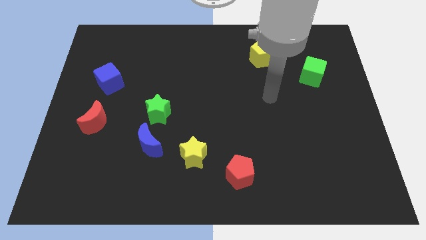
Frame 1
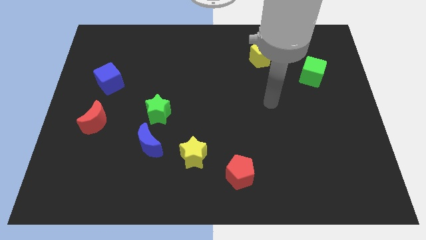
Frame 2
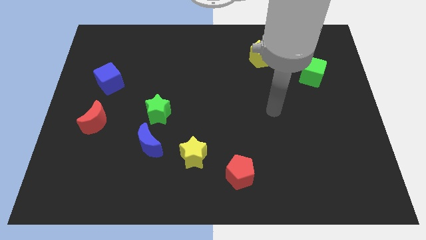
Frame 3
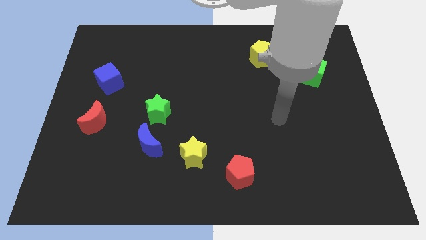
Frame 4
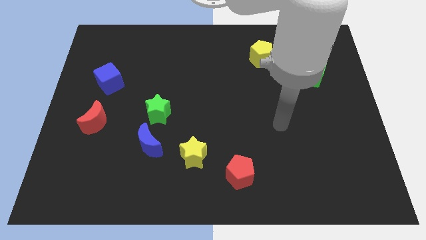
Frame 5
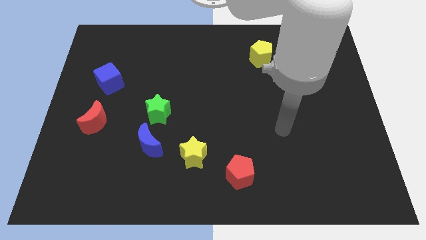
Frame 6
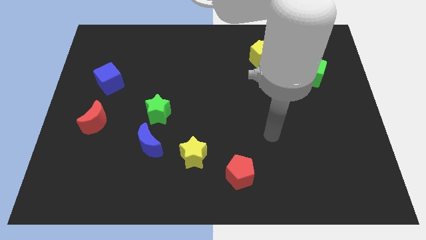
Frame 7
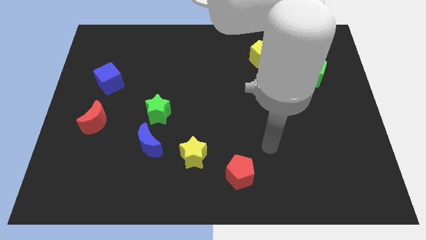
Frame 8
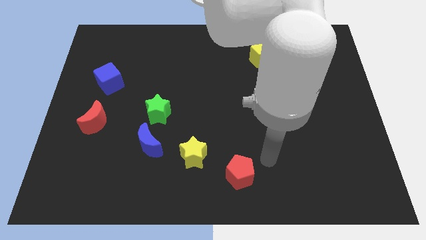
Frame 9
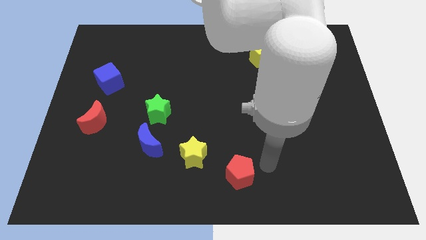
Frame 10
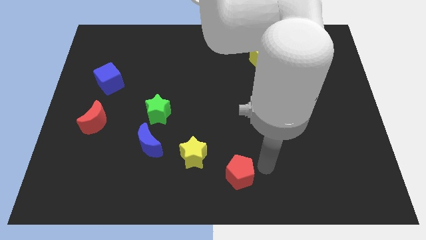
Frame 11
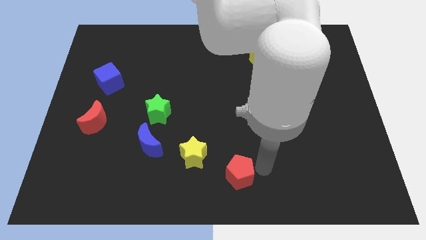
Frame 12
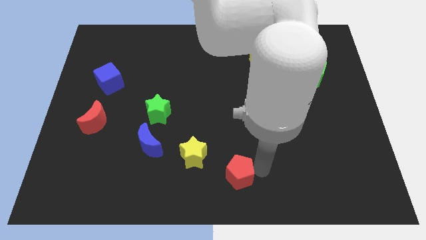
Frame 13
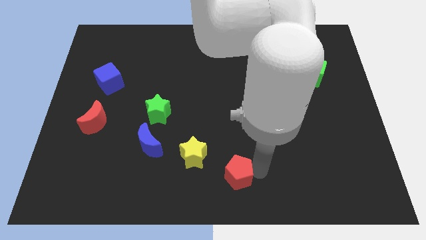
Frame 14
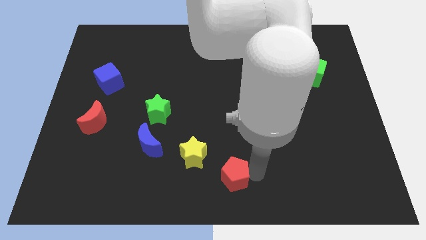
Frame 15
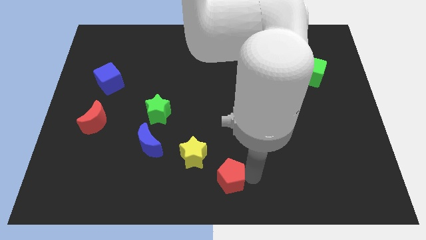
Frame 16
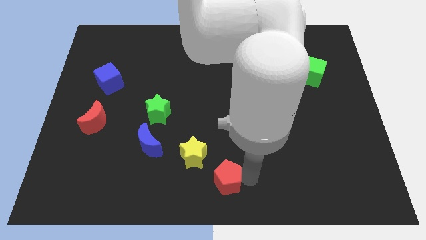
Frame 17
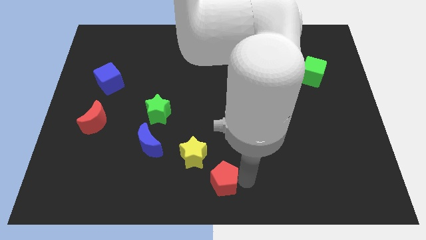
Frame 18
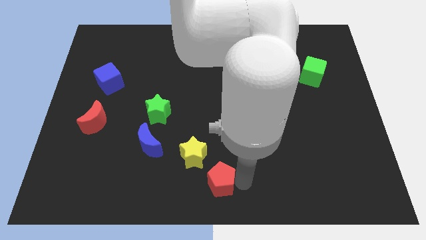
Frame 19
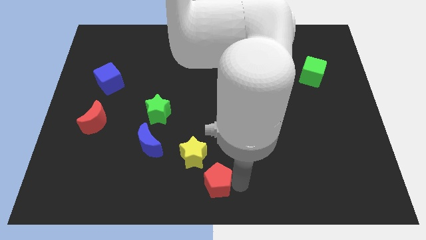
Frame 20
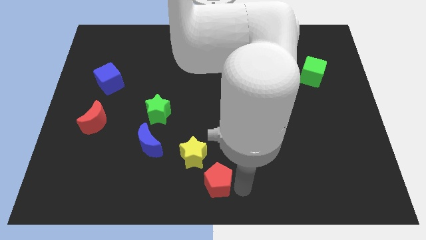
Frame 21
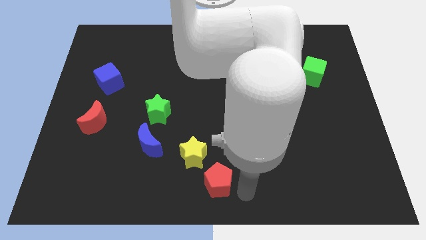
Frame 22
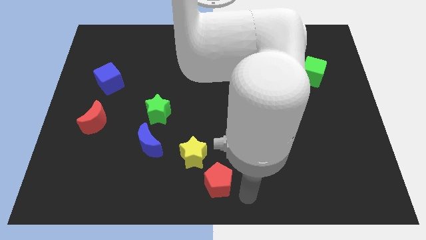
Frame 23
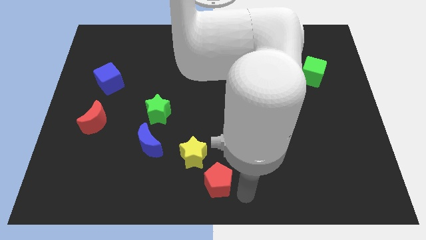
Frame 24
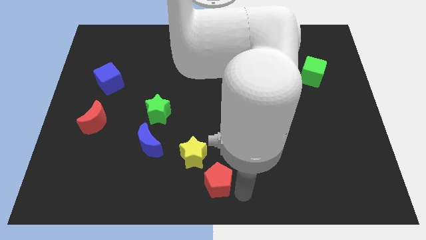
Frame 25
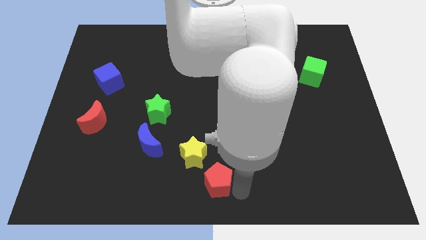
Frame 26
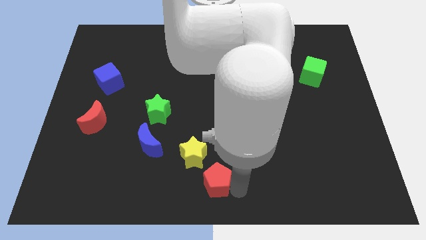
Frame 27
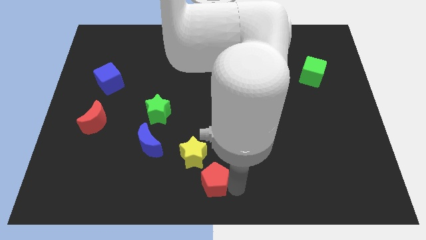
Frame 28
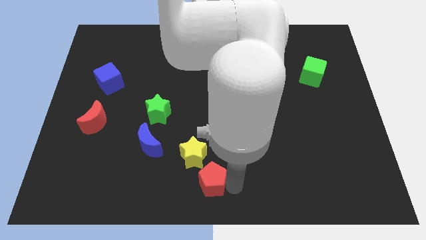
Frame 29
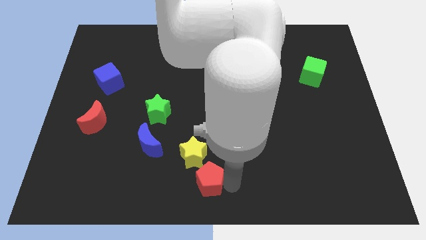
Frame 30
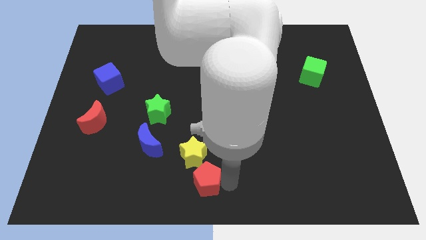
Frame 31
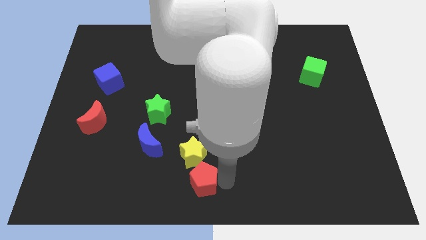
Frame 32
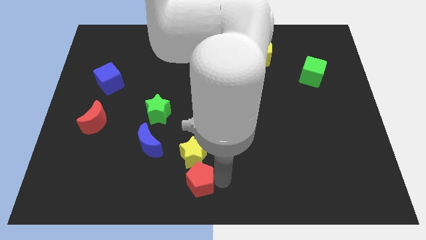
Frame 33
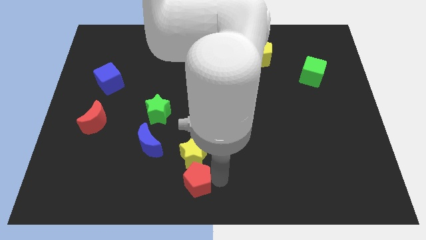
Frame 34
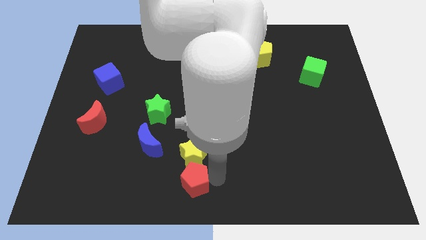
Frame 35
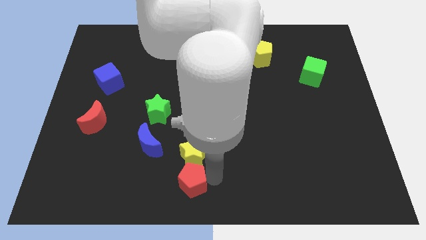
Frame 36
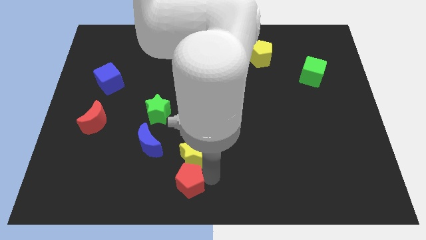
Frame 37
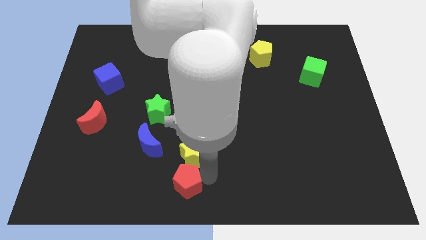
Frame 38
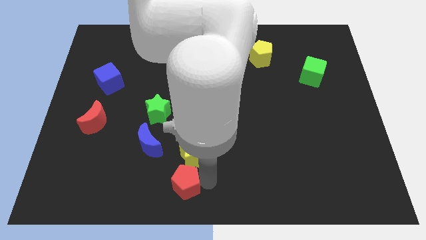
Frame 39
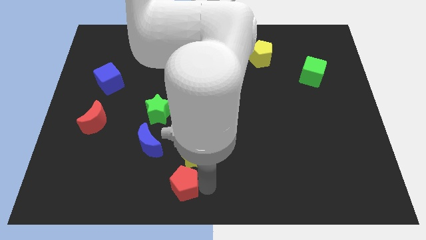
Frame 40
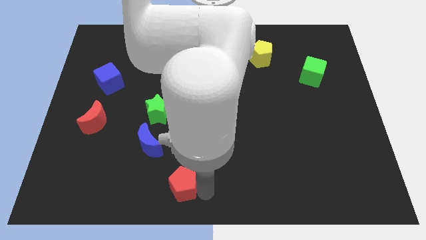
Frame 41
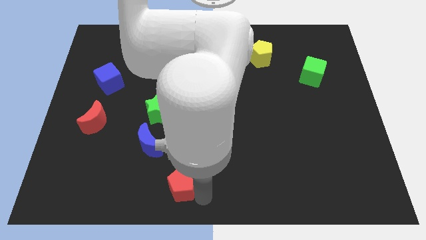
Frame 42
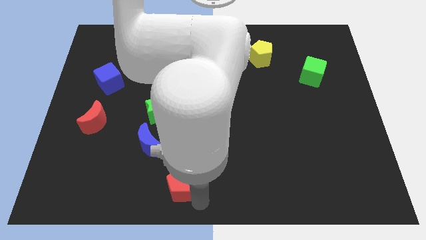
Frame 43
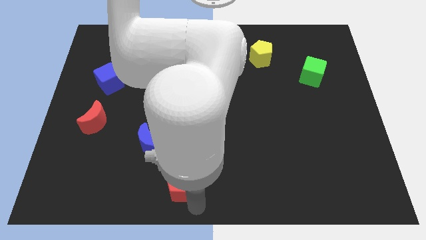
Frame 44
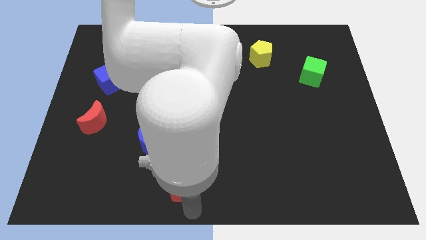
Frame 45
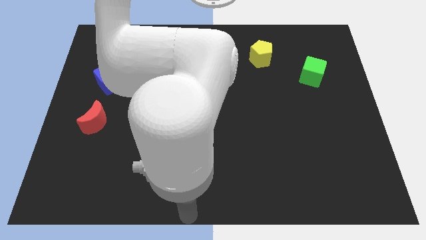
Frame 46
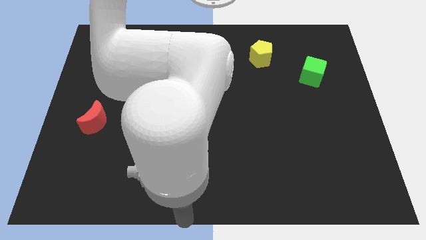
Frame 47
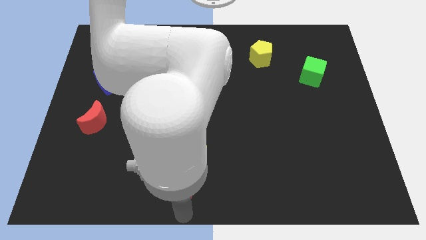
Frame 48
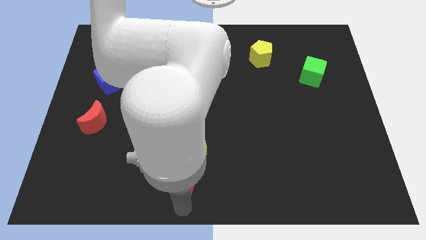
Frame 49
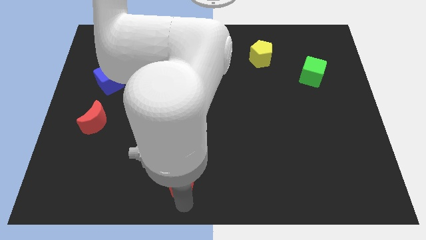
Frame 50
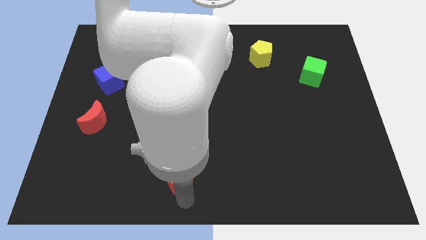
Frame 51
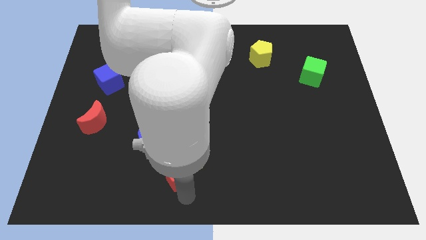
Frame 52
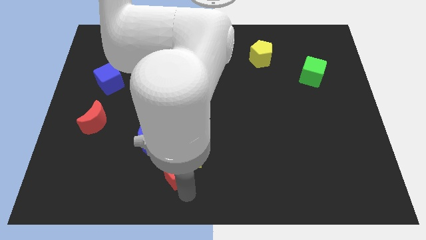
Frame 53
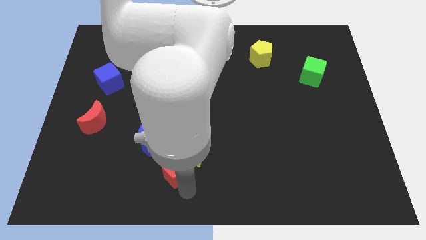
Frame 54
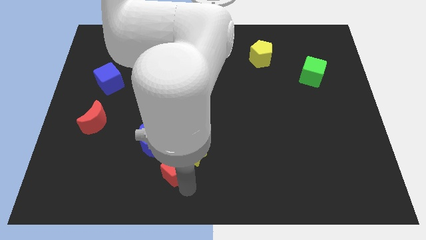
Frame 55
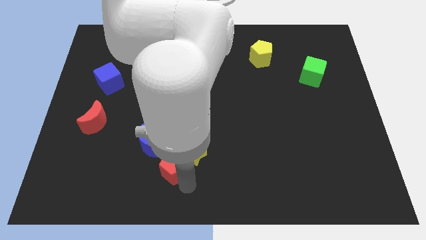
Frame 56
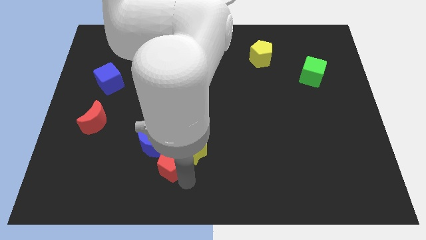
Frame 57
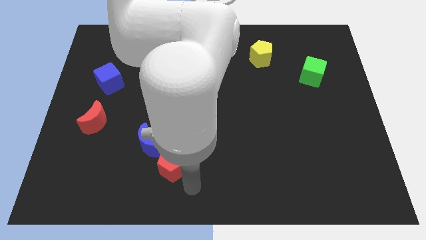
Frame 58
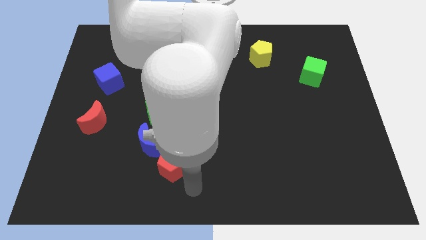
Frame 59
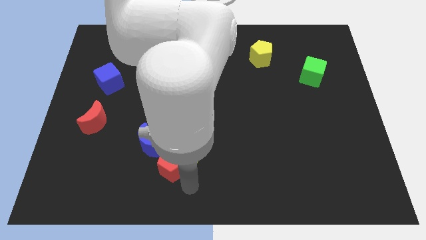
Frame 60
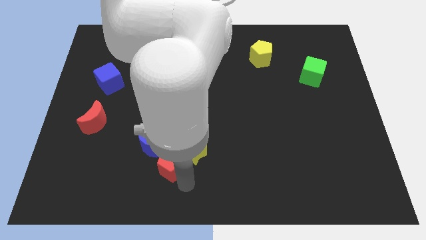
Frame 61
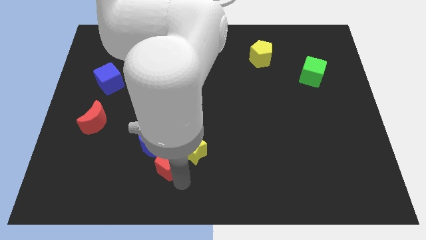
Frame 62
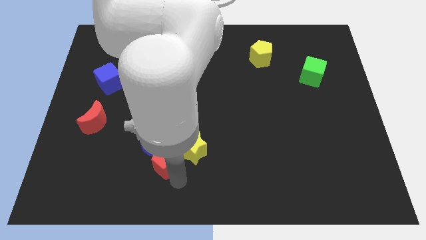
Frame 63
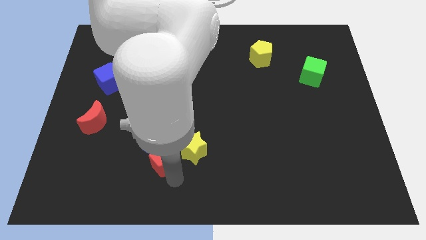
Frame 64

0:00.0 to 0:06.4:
put the red pentagon close to the blue moon

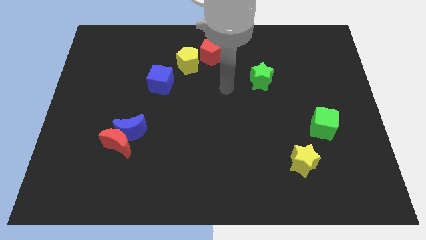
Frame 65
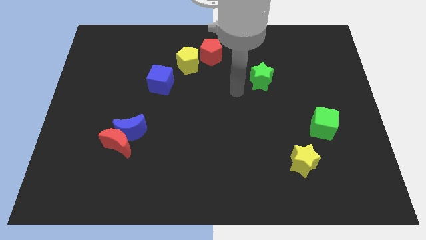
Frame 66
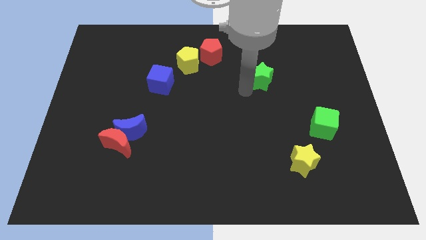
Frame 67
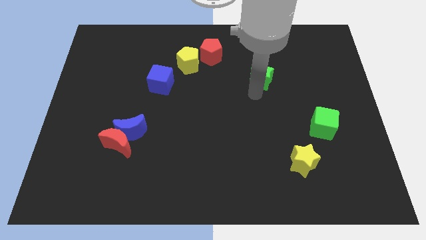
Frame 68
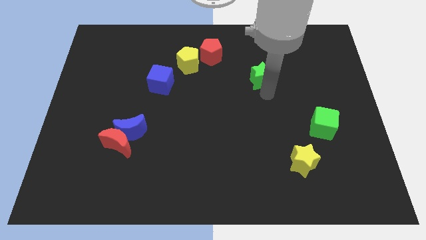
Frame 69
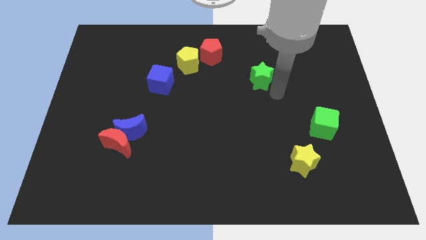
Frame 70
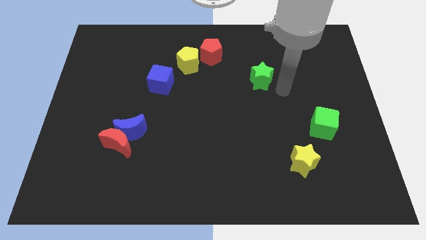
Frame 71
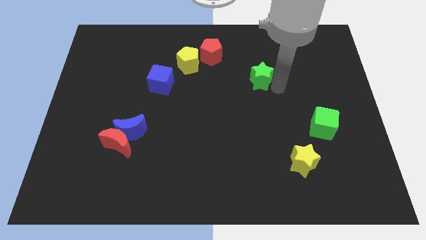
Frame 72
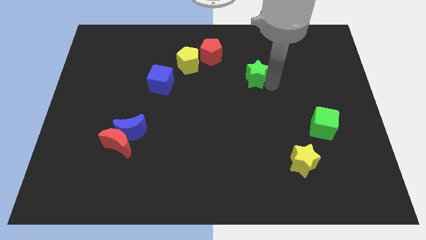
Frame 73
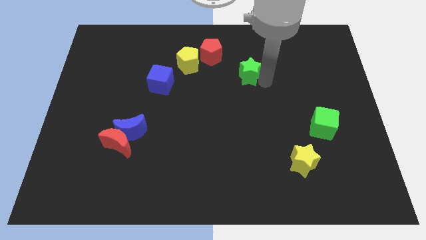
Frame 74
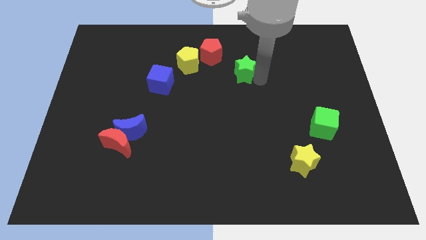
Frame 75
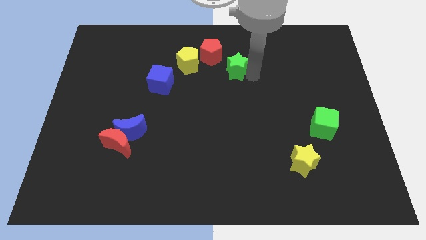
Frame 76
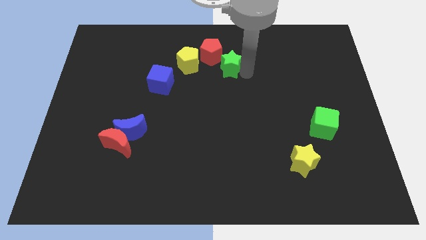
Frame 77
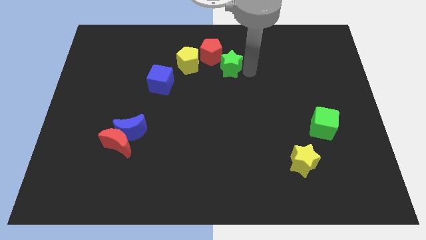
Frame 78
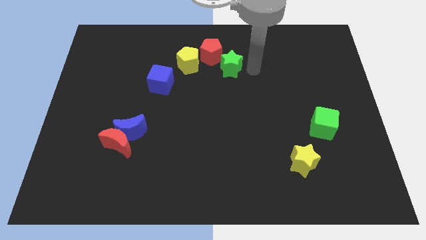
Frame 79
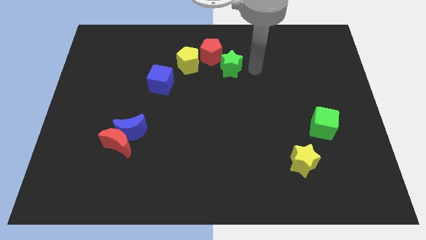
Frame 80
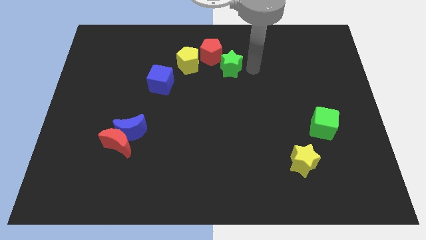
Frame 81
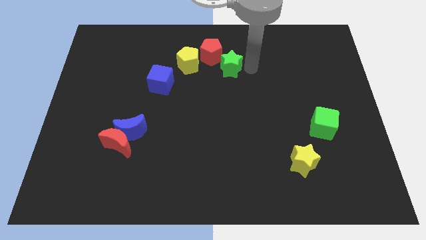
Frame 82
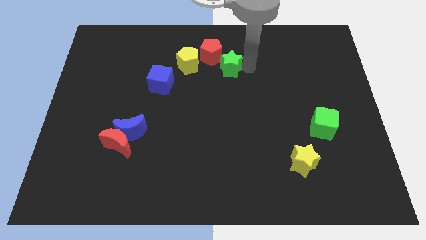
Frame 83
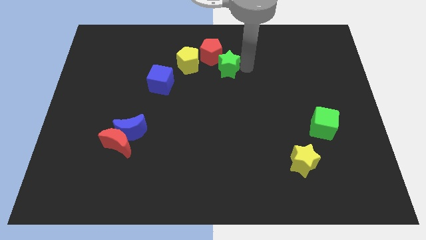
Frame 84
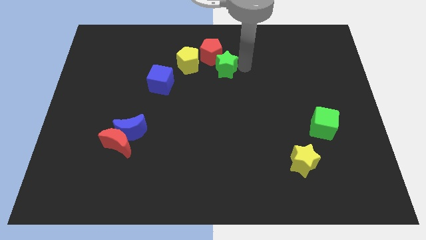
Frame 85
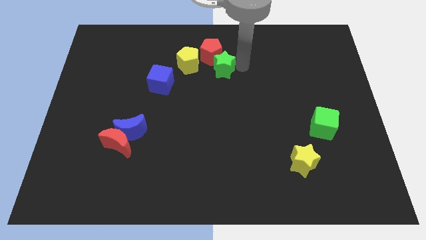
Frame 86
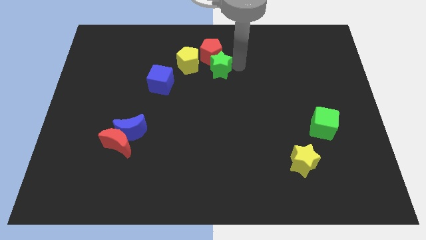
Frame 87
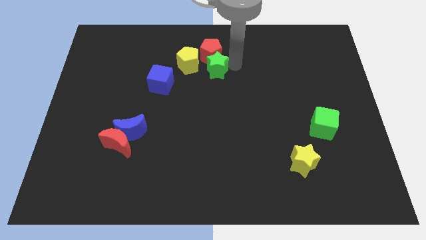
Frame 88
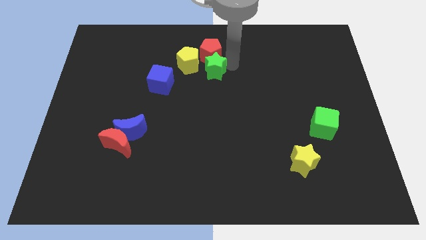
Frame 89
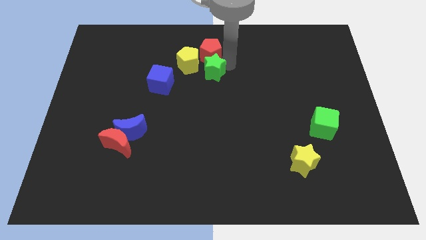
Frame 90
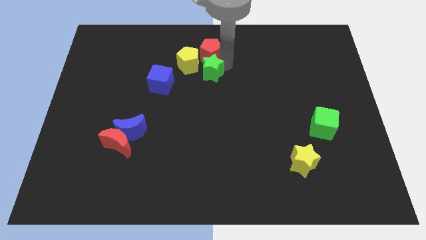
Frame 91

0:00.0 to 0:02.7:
push the green star to the yellow pentagon
